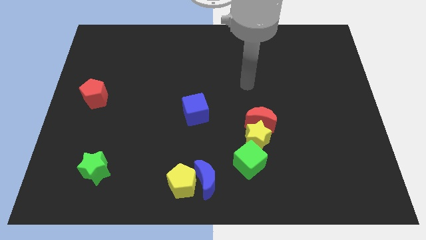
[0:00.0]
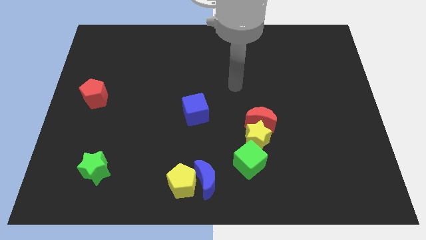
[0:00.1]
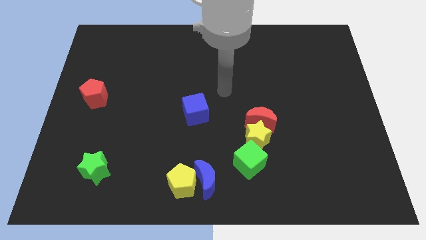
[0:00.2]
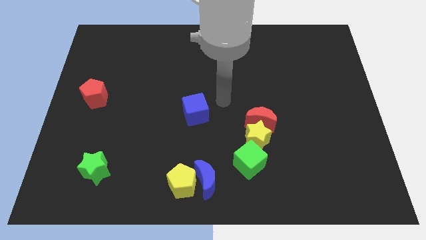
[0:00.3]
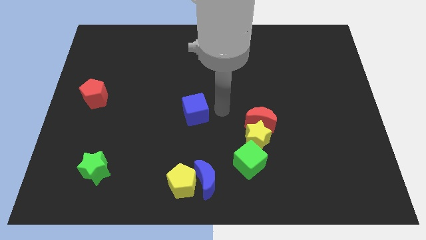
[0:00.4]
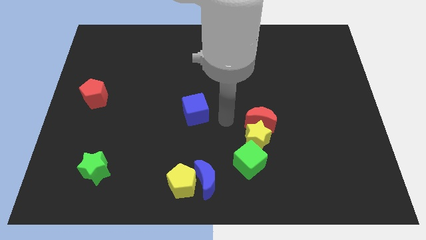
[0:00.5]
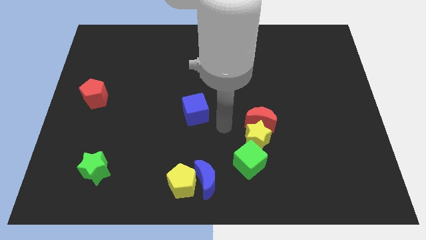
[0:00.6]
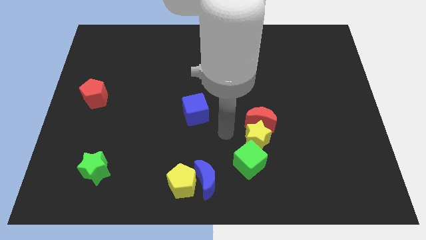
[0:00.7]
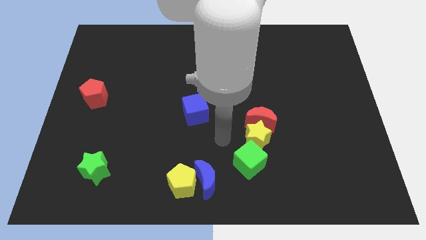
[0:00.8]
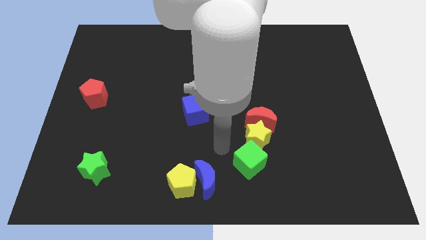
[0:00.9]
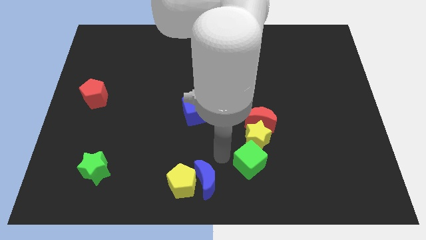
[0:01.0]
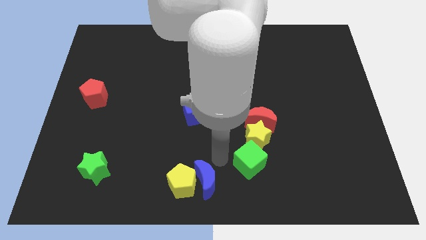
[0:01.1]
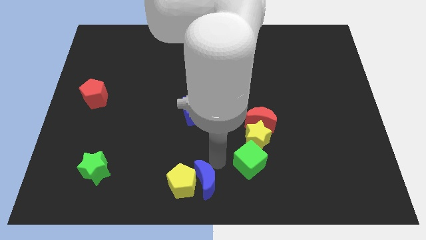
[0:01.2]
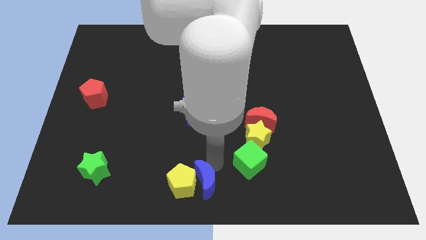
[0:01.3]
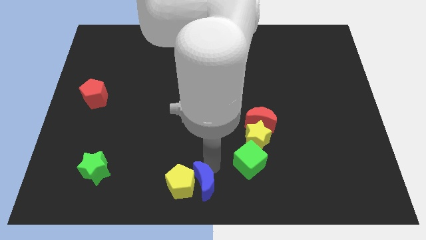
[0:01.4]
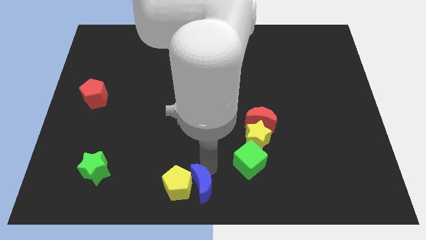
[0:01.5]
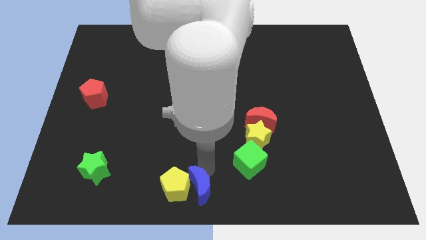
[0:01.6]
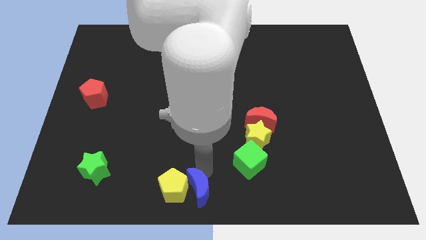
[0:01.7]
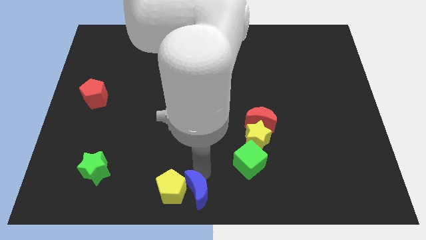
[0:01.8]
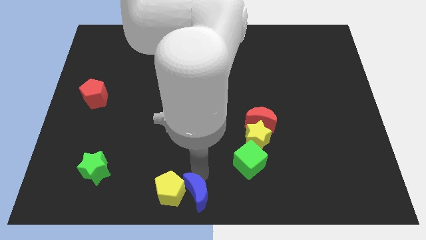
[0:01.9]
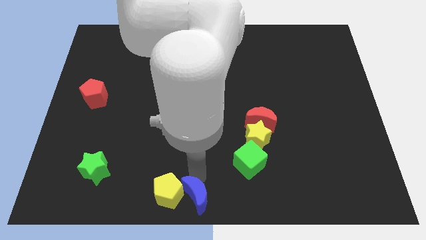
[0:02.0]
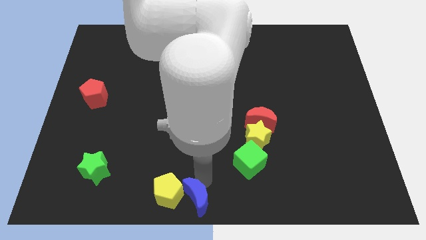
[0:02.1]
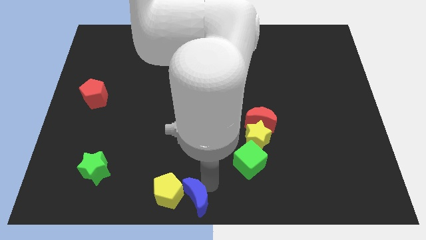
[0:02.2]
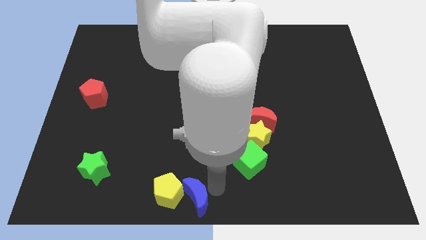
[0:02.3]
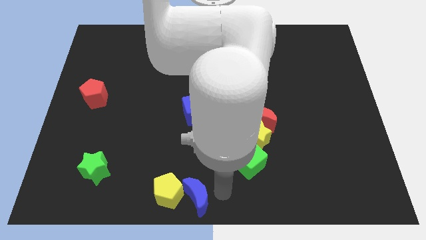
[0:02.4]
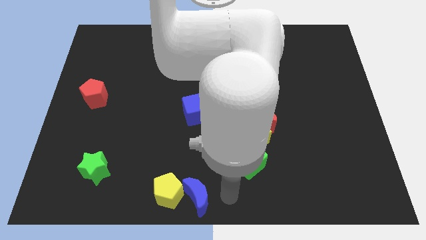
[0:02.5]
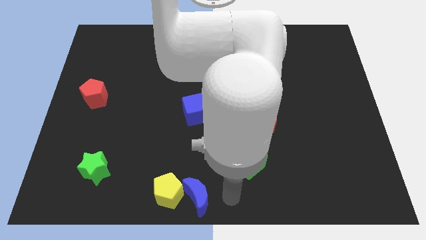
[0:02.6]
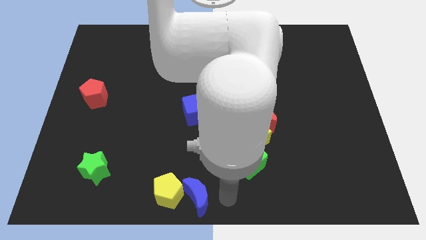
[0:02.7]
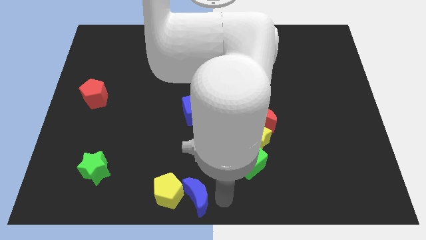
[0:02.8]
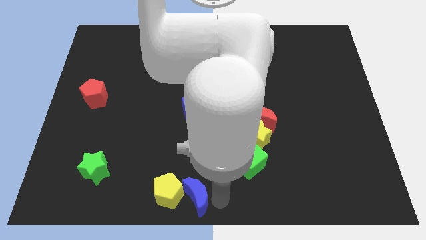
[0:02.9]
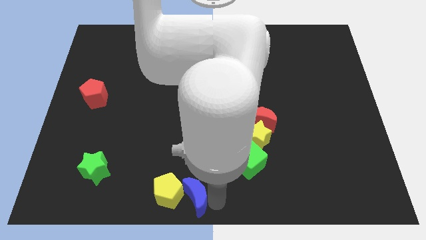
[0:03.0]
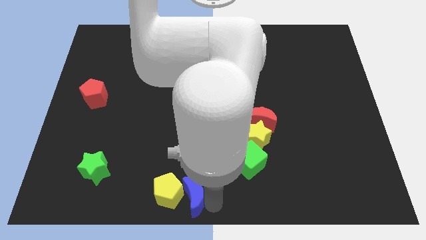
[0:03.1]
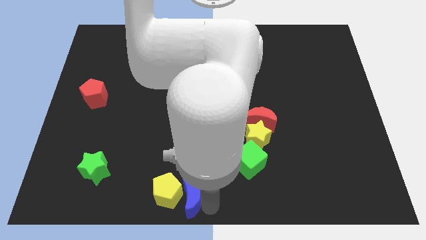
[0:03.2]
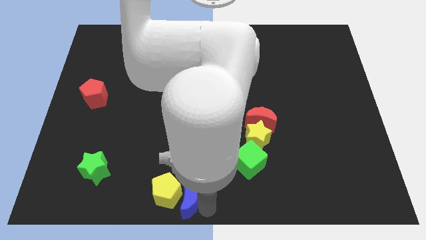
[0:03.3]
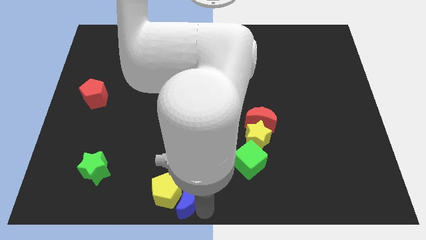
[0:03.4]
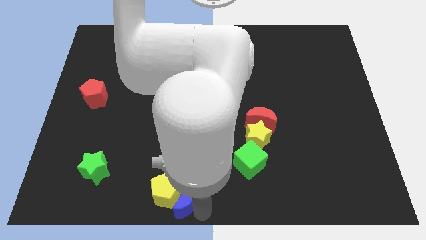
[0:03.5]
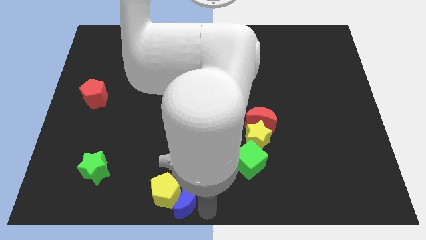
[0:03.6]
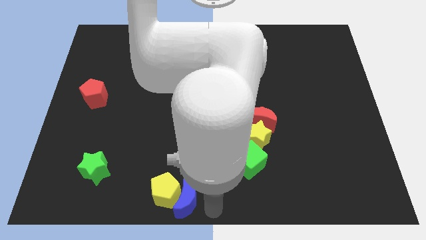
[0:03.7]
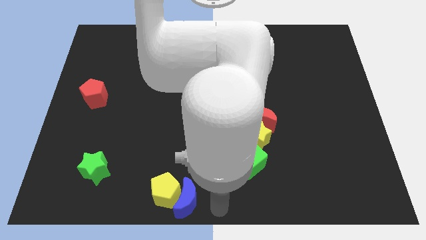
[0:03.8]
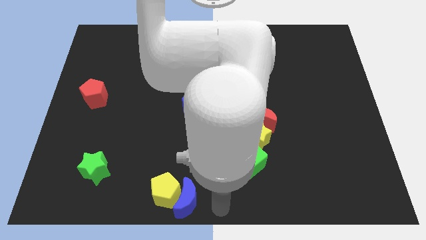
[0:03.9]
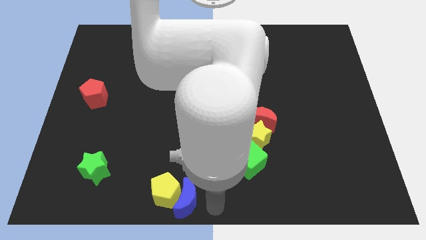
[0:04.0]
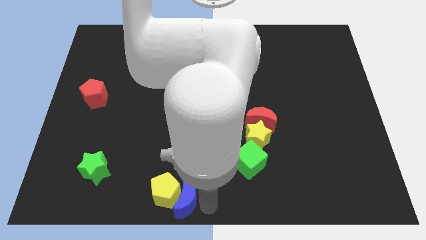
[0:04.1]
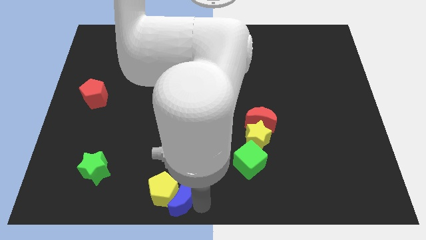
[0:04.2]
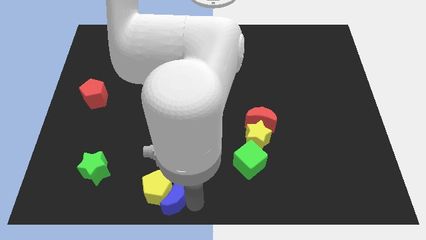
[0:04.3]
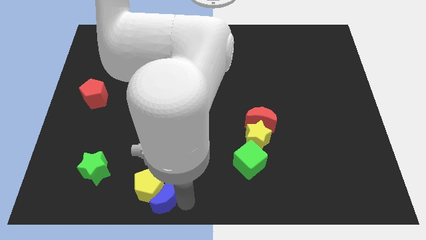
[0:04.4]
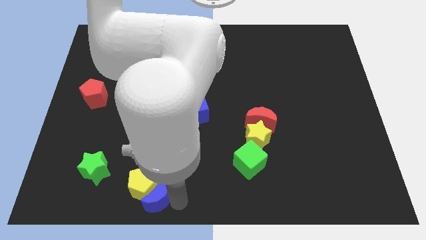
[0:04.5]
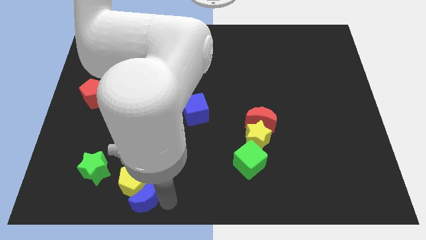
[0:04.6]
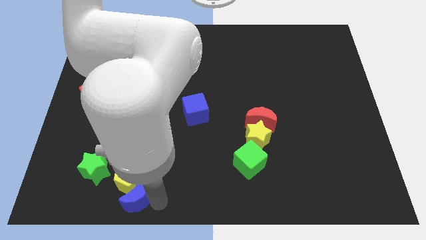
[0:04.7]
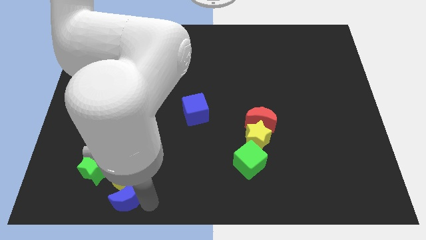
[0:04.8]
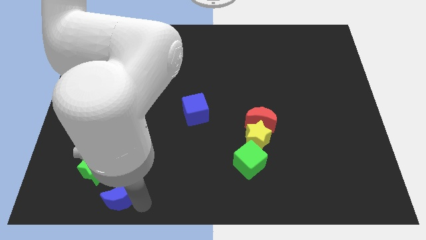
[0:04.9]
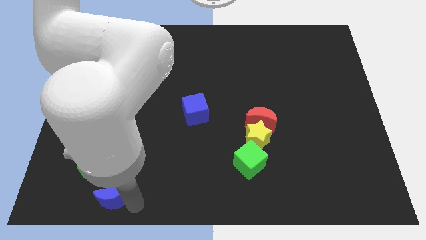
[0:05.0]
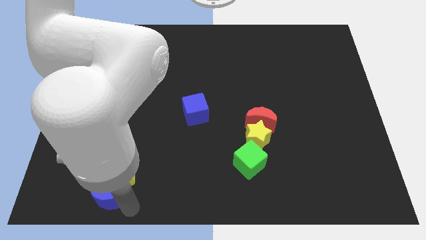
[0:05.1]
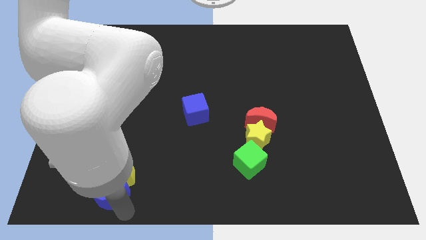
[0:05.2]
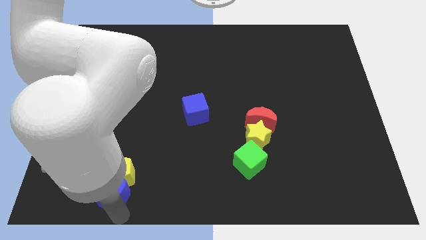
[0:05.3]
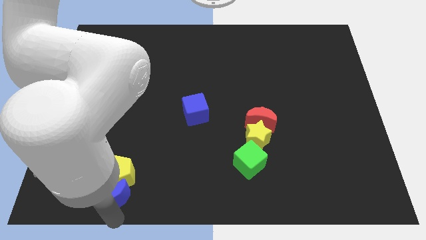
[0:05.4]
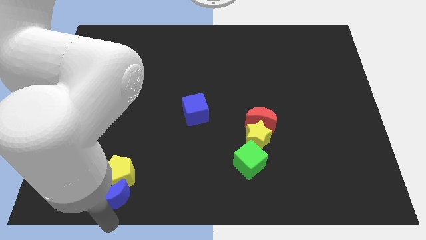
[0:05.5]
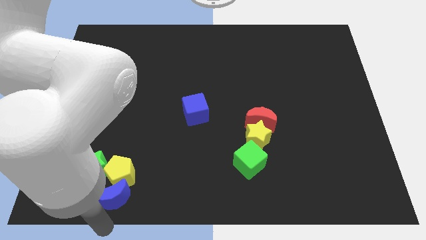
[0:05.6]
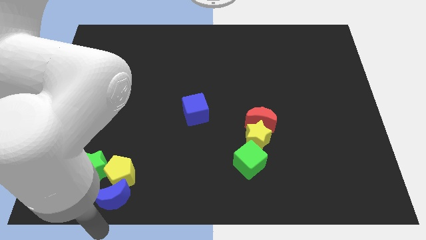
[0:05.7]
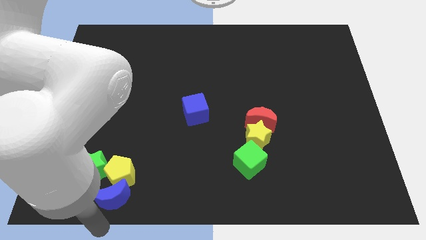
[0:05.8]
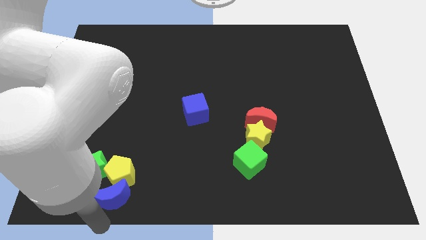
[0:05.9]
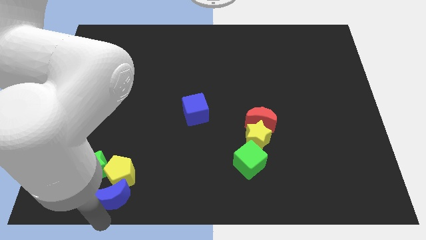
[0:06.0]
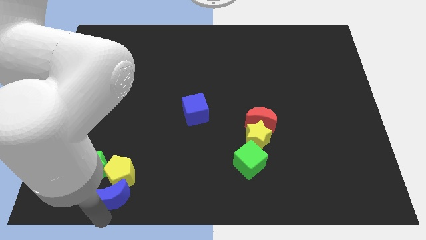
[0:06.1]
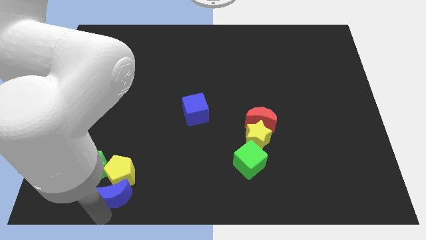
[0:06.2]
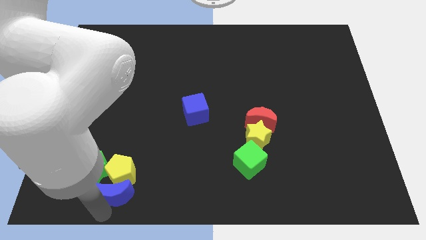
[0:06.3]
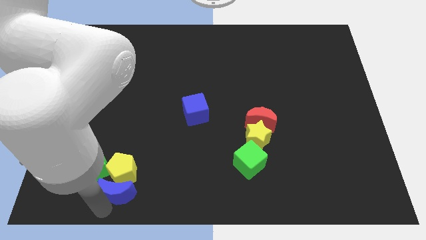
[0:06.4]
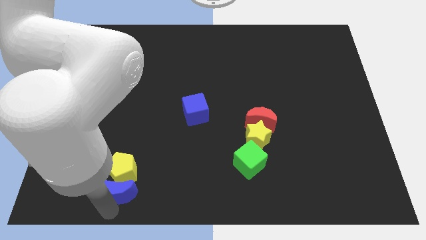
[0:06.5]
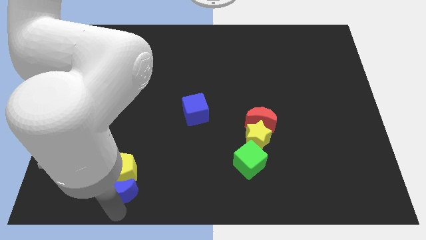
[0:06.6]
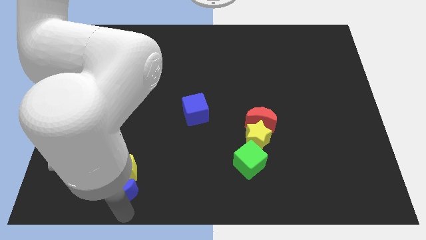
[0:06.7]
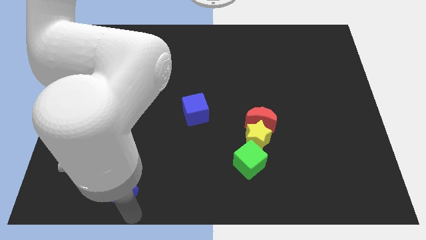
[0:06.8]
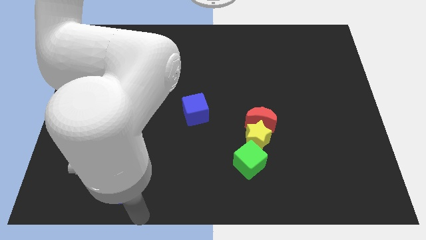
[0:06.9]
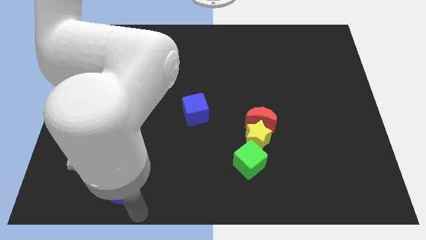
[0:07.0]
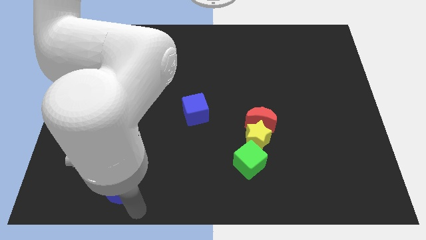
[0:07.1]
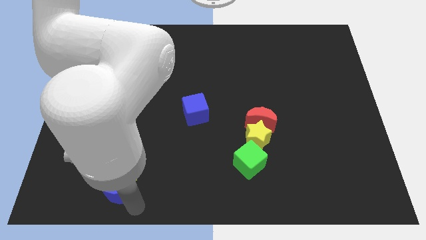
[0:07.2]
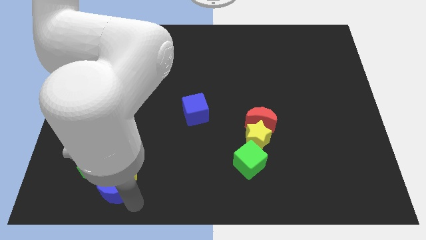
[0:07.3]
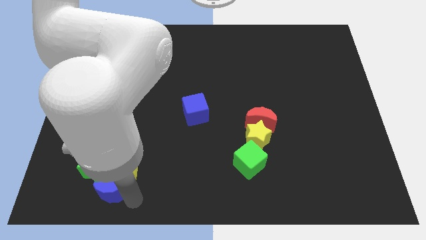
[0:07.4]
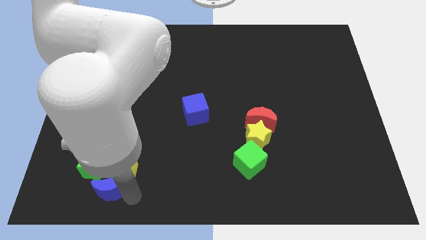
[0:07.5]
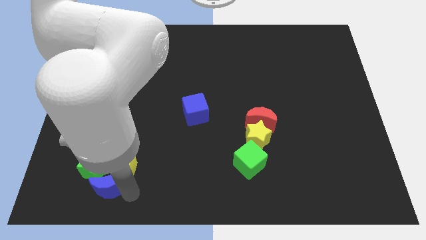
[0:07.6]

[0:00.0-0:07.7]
slide the blue moon towards the green star
